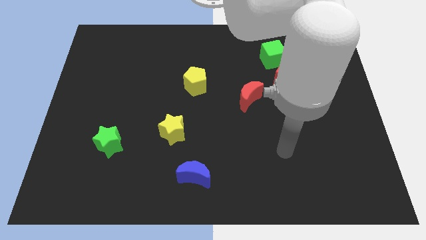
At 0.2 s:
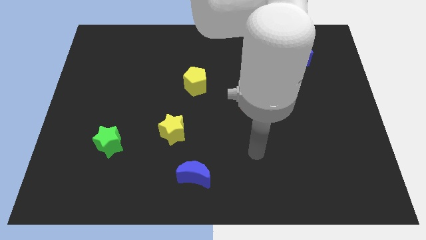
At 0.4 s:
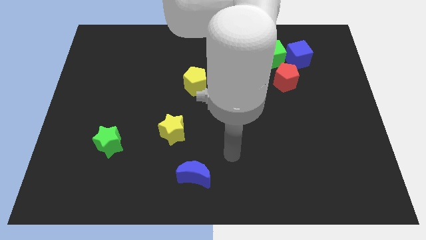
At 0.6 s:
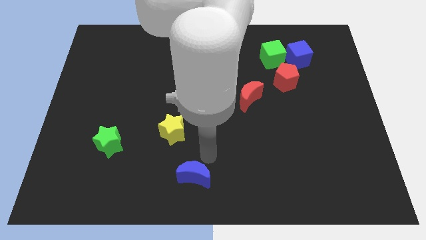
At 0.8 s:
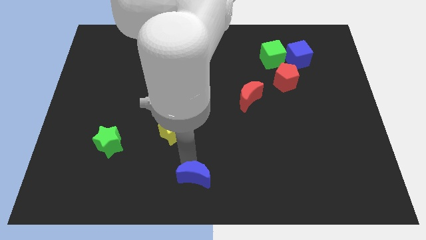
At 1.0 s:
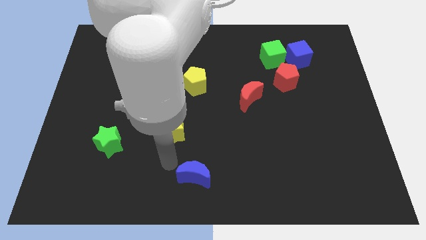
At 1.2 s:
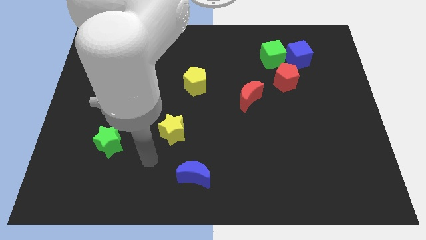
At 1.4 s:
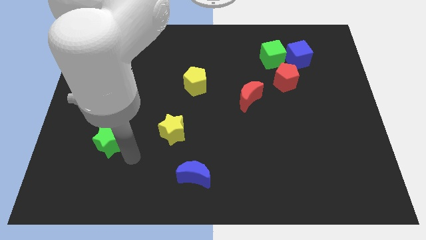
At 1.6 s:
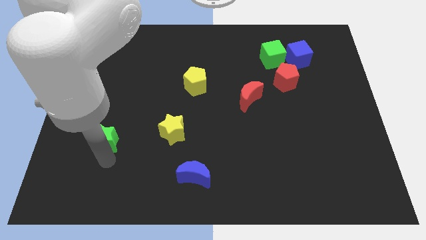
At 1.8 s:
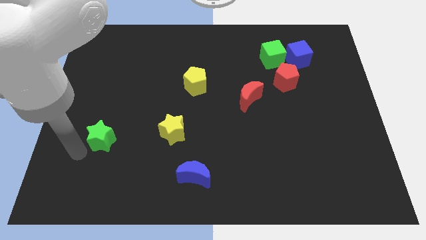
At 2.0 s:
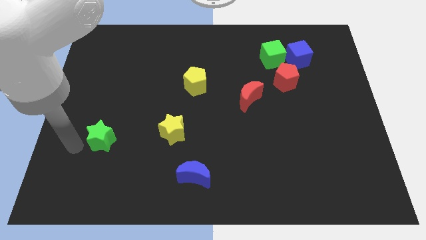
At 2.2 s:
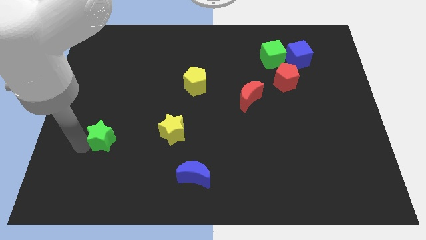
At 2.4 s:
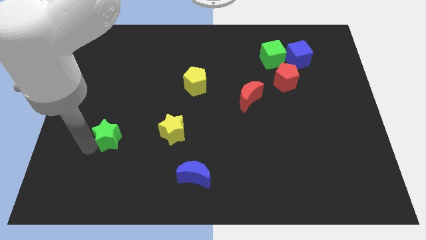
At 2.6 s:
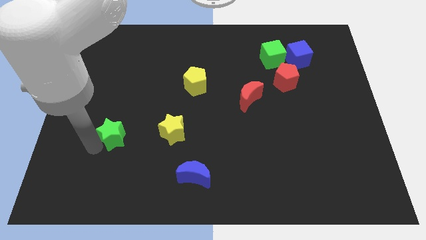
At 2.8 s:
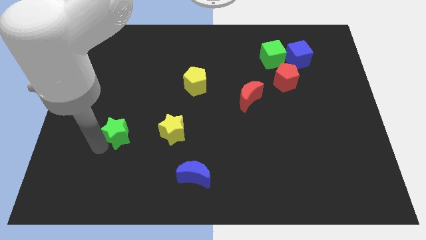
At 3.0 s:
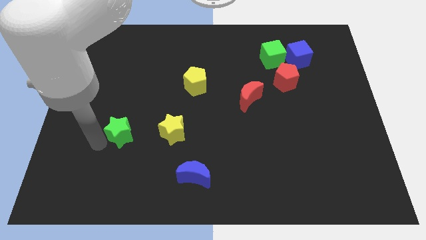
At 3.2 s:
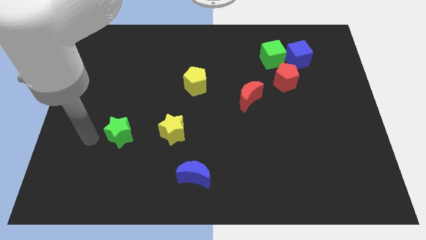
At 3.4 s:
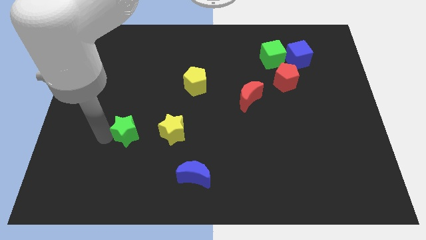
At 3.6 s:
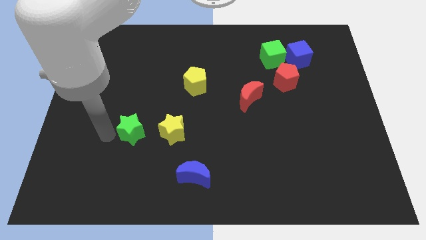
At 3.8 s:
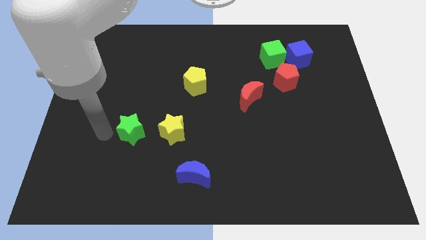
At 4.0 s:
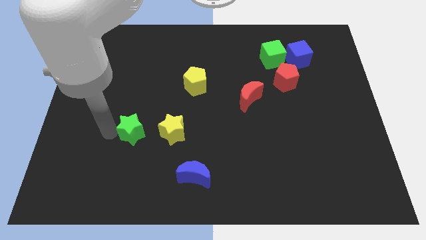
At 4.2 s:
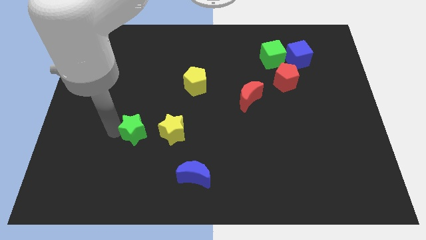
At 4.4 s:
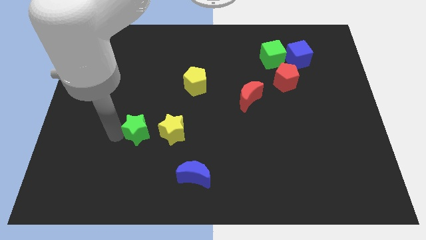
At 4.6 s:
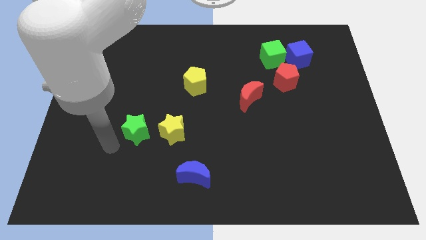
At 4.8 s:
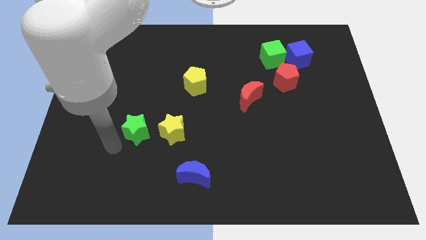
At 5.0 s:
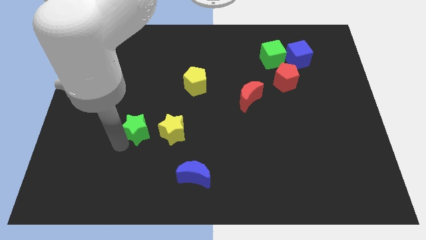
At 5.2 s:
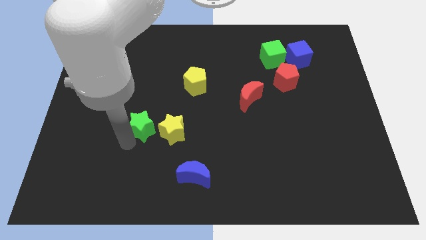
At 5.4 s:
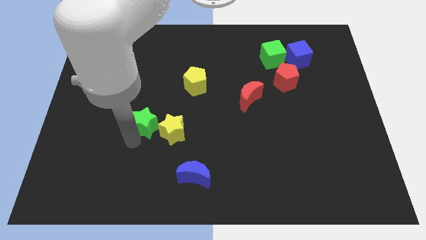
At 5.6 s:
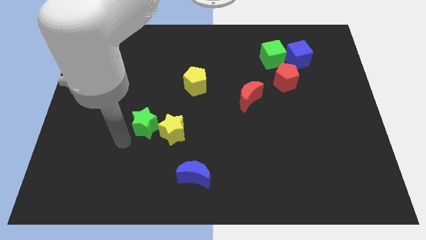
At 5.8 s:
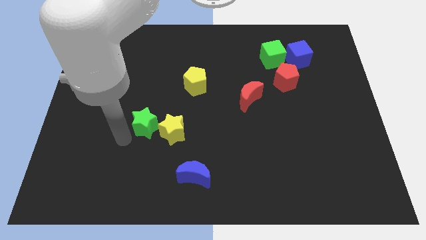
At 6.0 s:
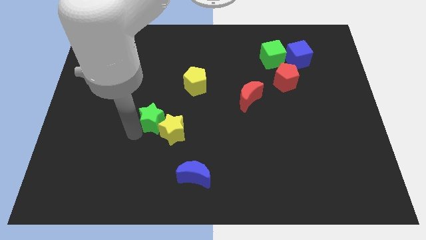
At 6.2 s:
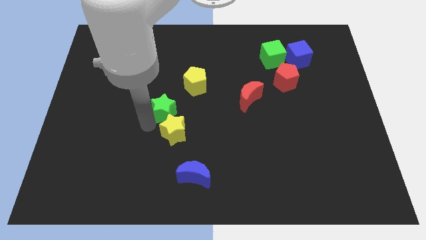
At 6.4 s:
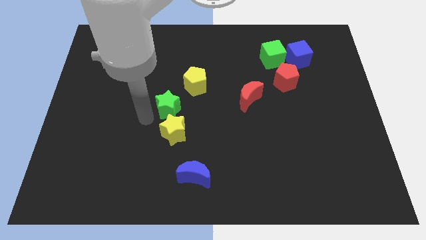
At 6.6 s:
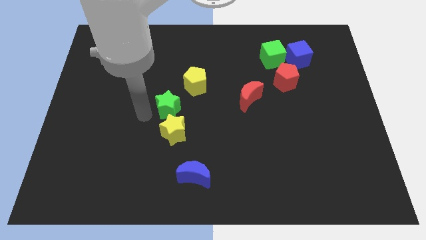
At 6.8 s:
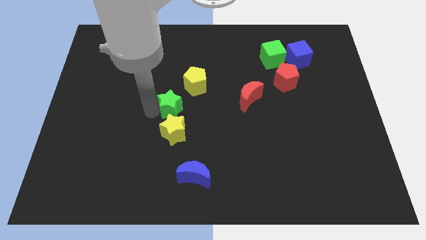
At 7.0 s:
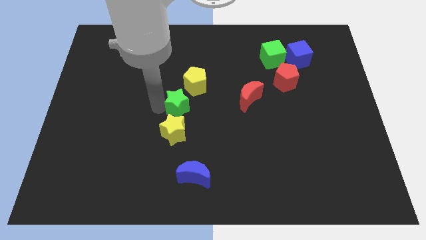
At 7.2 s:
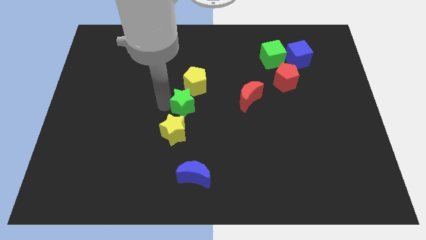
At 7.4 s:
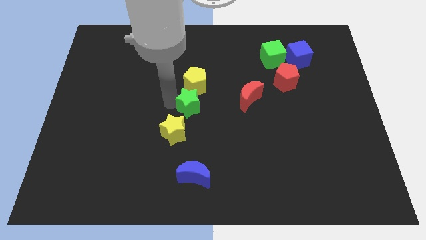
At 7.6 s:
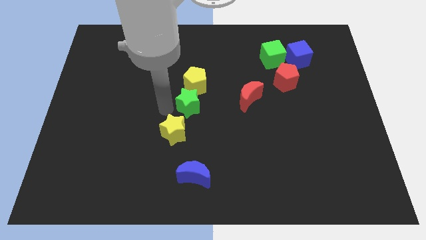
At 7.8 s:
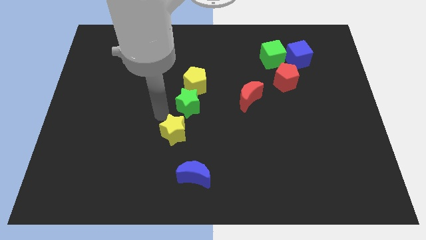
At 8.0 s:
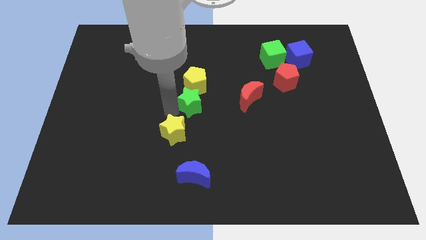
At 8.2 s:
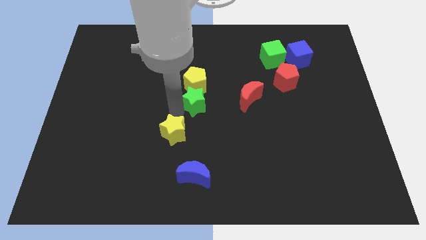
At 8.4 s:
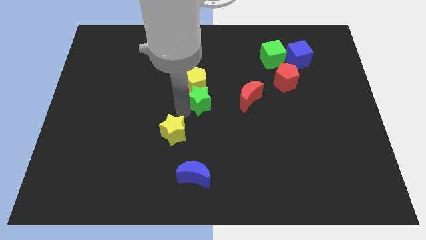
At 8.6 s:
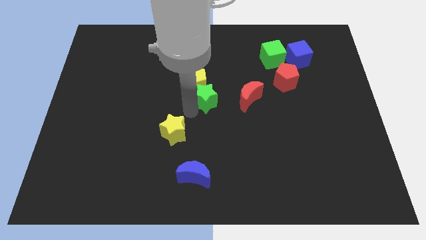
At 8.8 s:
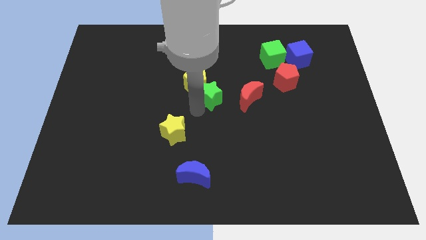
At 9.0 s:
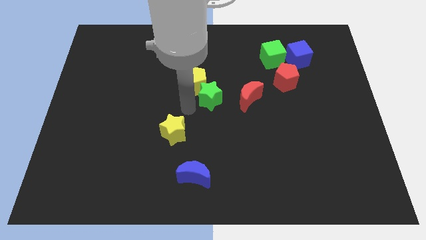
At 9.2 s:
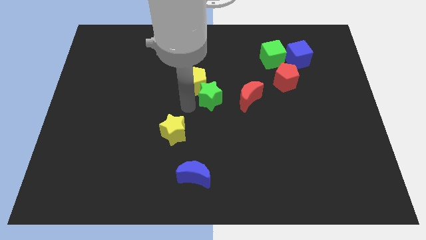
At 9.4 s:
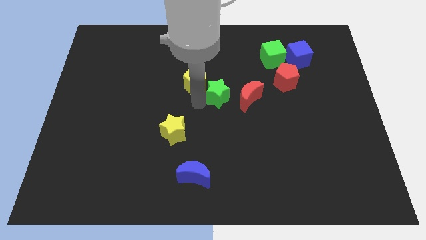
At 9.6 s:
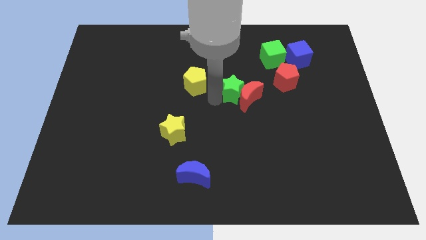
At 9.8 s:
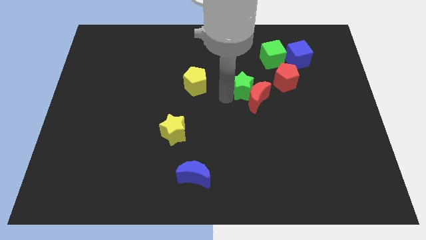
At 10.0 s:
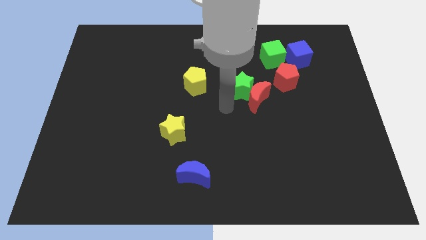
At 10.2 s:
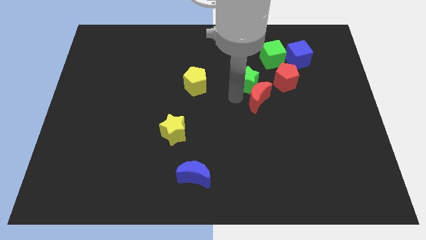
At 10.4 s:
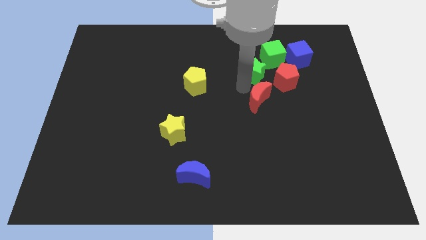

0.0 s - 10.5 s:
put the green star diagonally up and to the left of the red pentagon

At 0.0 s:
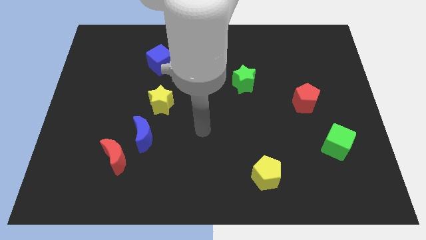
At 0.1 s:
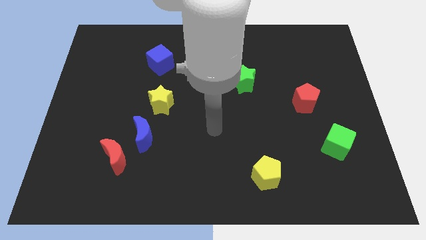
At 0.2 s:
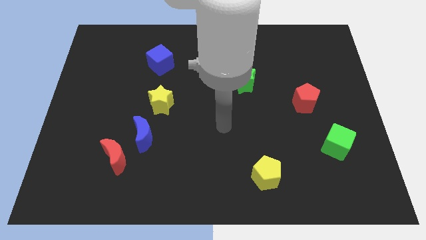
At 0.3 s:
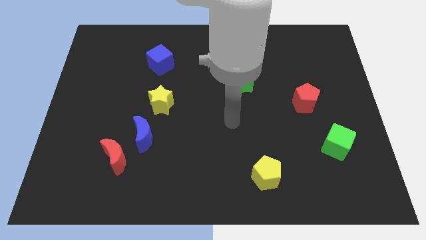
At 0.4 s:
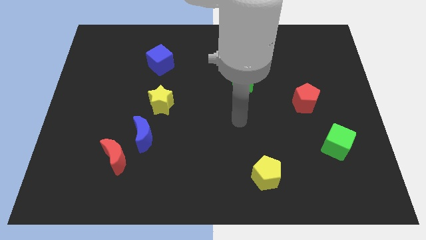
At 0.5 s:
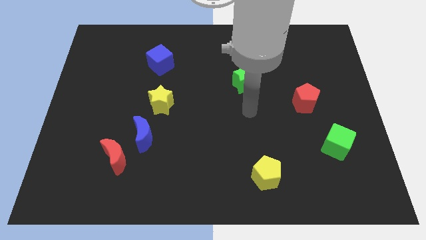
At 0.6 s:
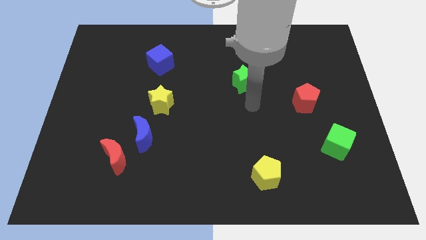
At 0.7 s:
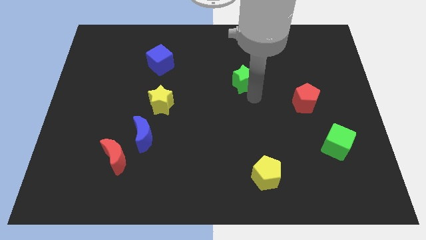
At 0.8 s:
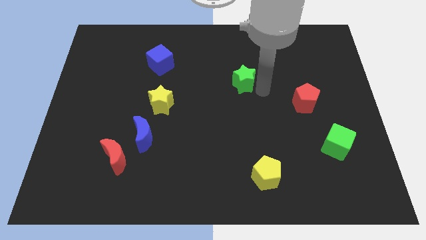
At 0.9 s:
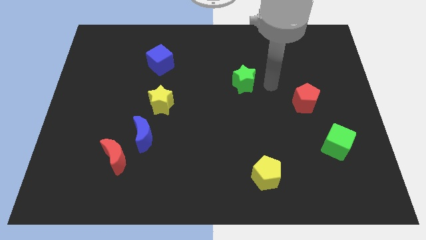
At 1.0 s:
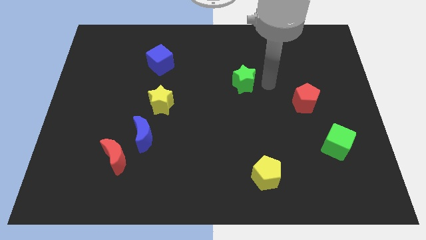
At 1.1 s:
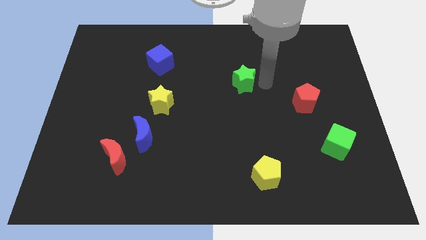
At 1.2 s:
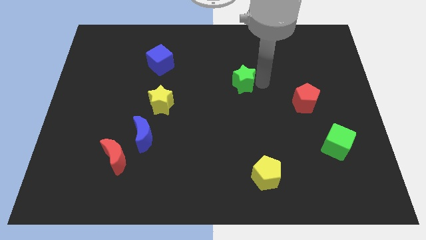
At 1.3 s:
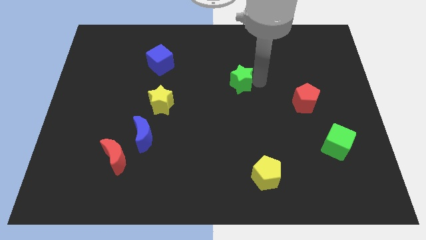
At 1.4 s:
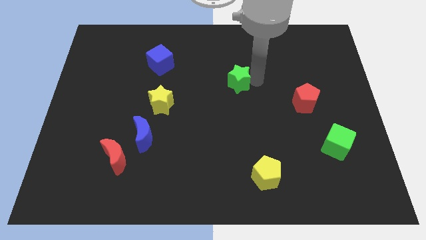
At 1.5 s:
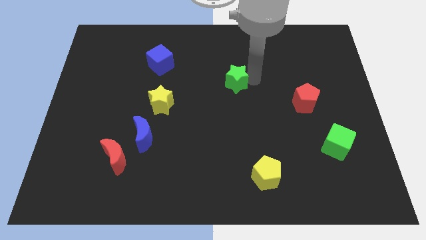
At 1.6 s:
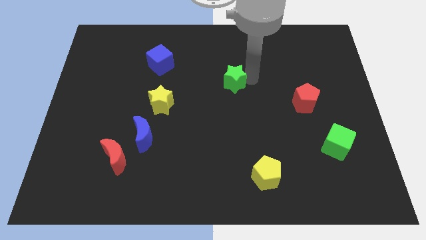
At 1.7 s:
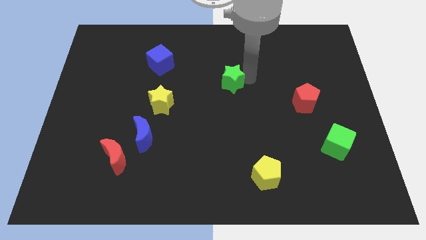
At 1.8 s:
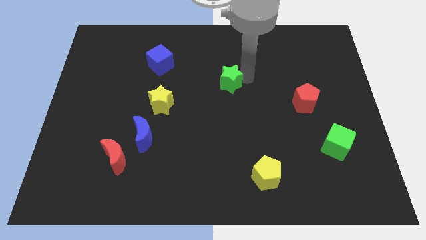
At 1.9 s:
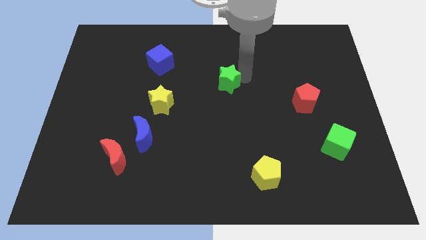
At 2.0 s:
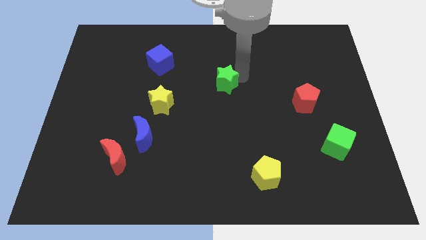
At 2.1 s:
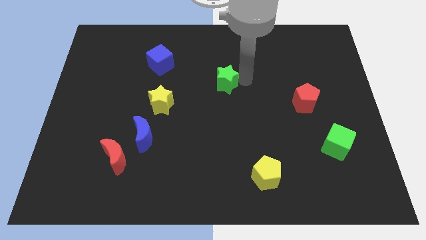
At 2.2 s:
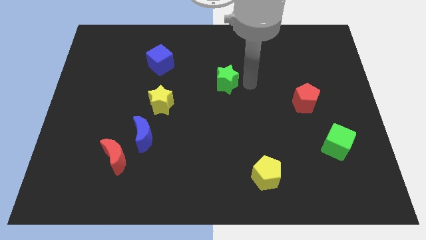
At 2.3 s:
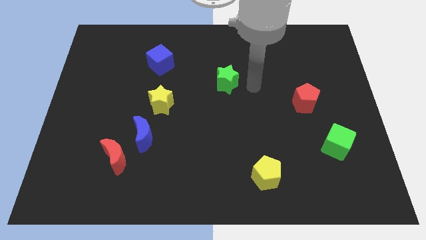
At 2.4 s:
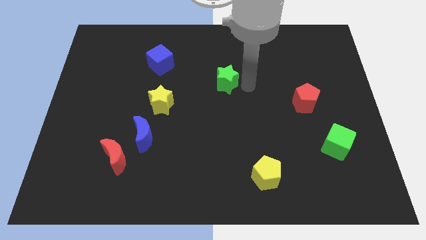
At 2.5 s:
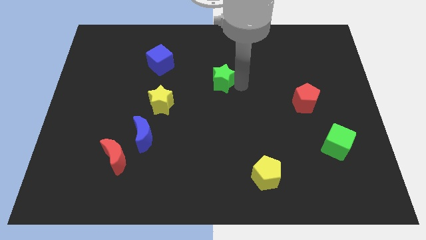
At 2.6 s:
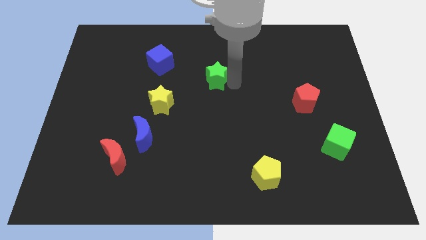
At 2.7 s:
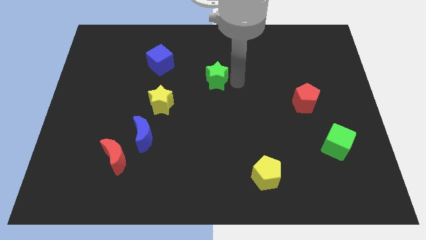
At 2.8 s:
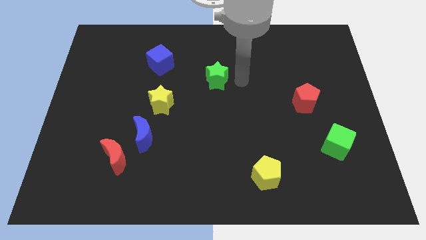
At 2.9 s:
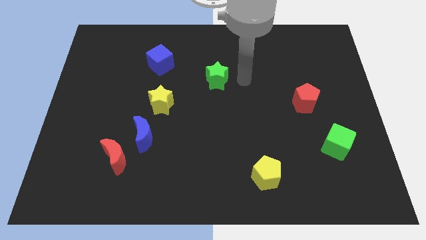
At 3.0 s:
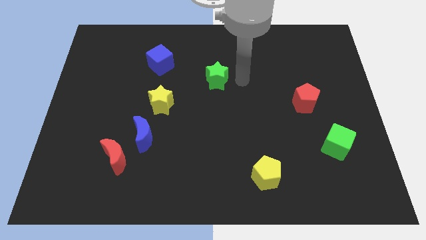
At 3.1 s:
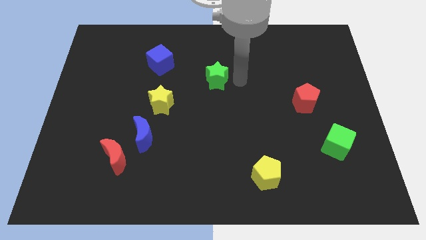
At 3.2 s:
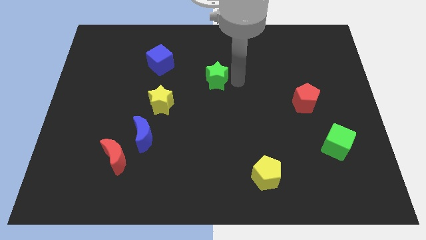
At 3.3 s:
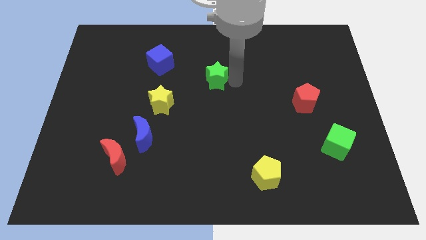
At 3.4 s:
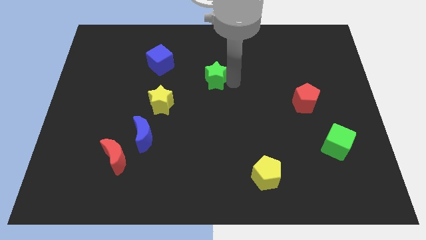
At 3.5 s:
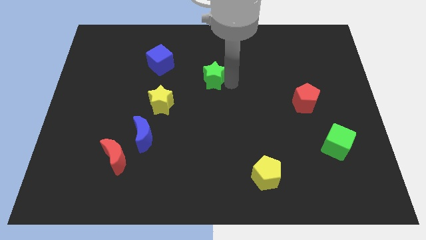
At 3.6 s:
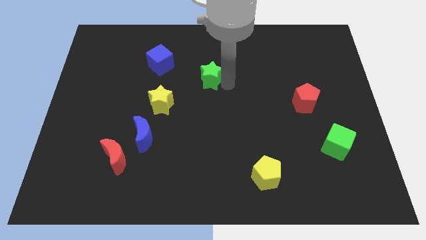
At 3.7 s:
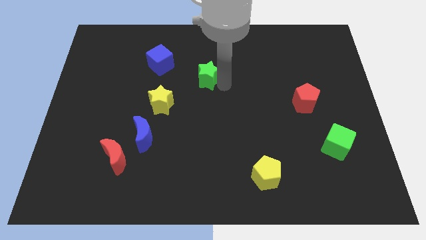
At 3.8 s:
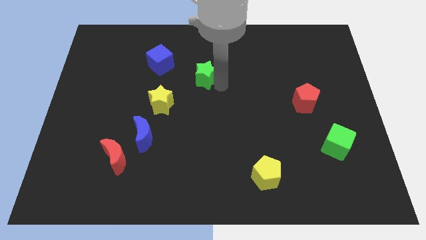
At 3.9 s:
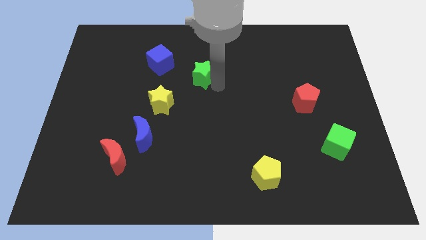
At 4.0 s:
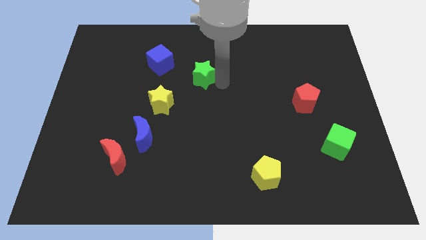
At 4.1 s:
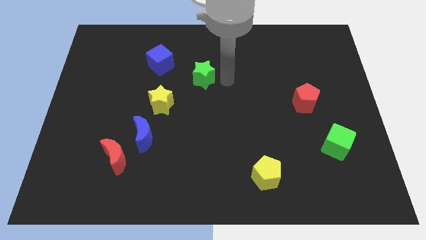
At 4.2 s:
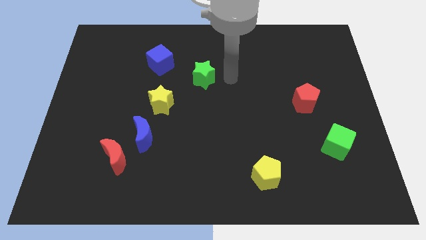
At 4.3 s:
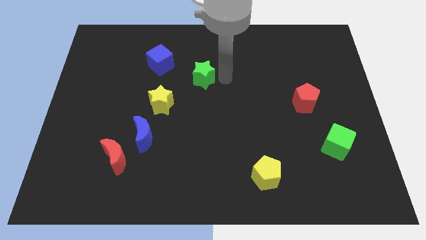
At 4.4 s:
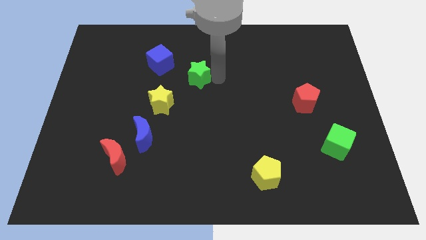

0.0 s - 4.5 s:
slide the green star diagonally down and to the right of the blue cube
